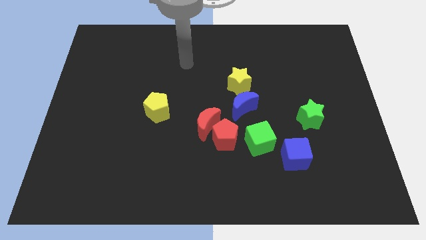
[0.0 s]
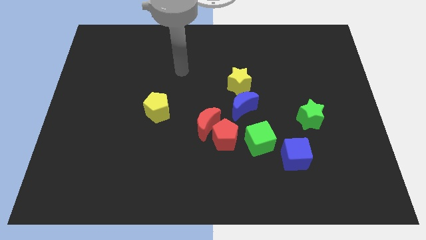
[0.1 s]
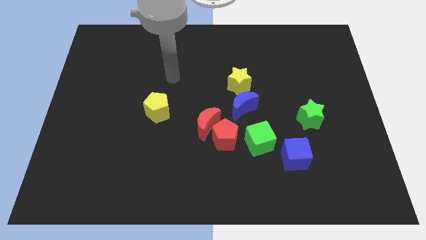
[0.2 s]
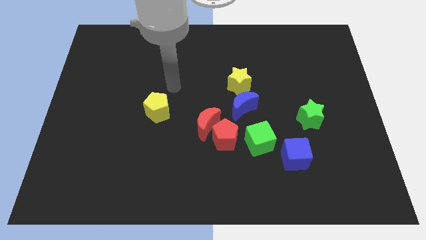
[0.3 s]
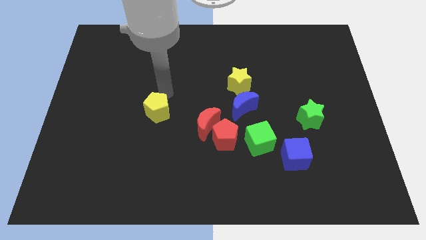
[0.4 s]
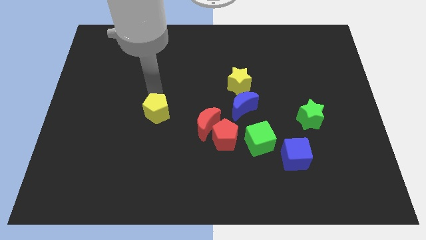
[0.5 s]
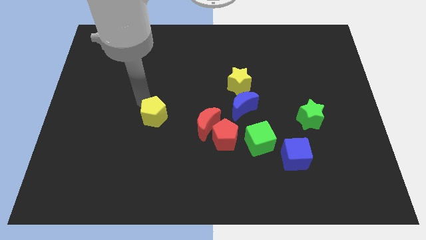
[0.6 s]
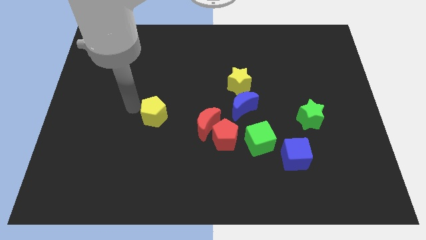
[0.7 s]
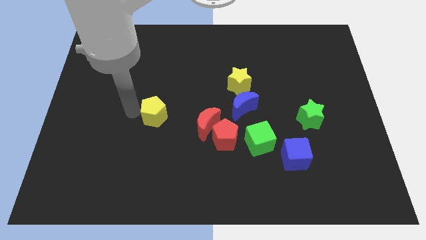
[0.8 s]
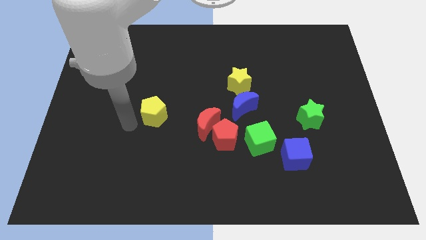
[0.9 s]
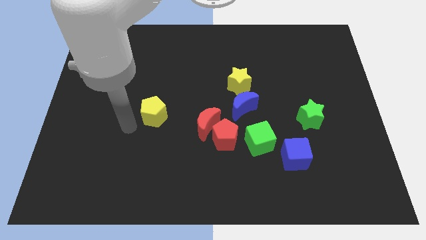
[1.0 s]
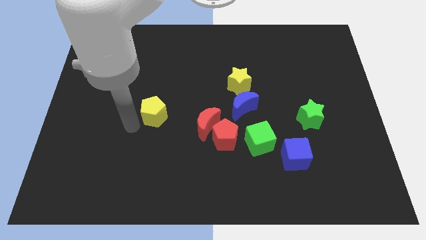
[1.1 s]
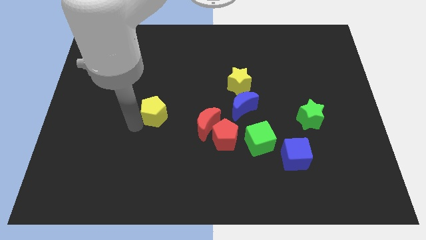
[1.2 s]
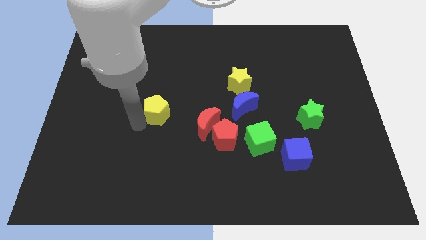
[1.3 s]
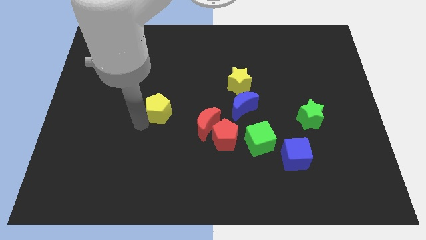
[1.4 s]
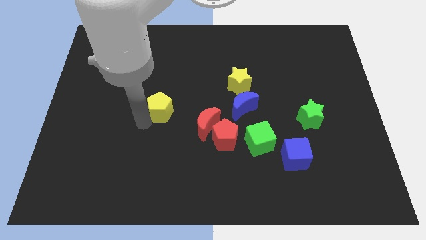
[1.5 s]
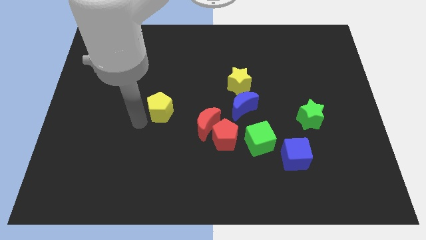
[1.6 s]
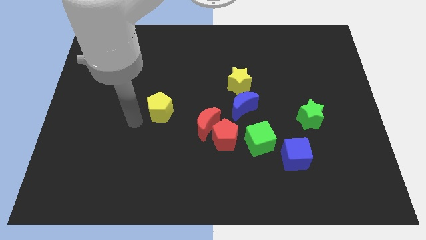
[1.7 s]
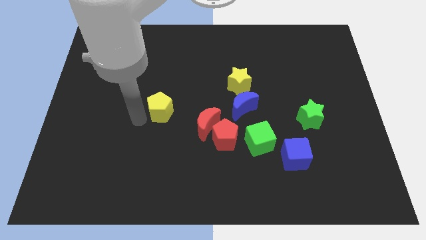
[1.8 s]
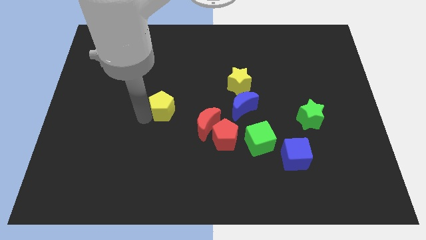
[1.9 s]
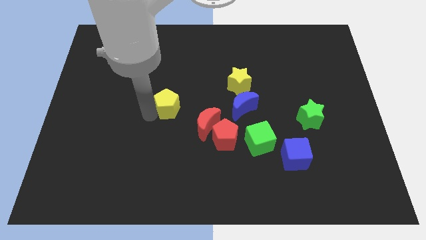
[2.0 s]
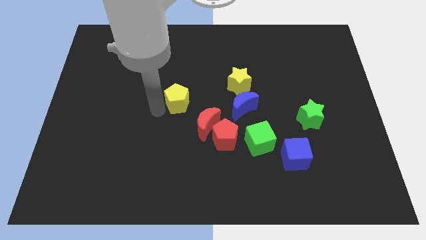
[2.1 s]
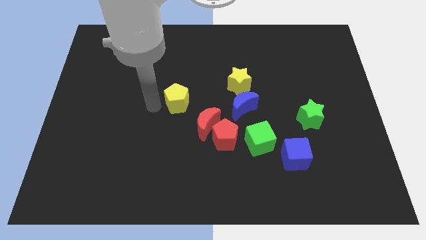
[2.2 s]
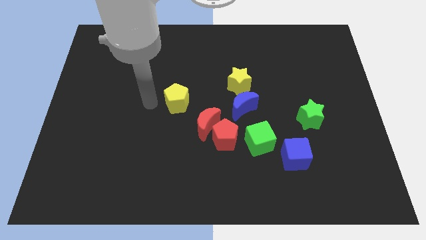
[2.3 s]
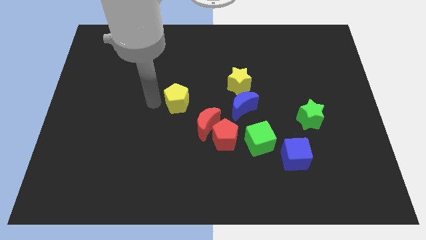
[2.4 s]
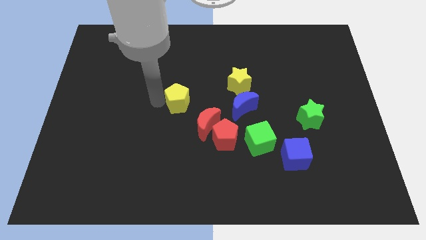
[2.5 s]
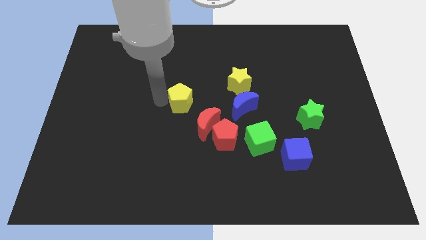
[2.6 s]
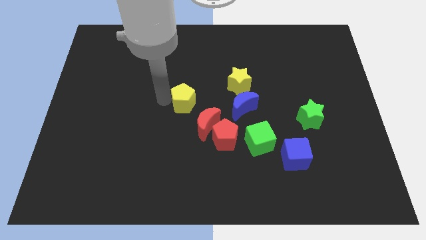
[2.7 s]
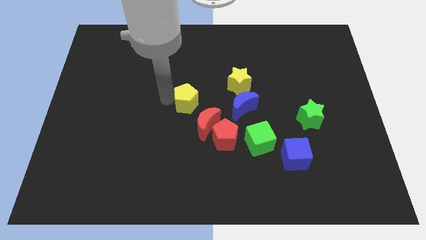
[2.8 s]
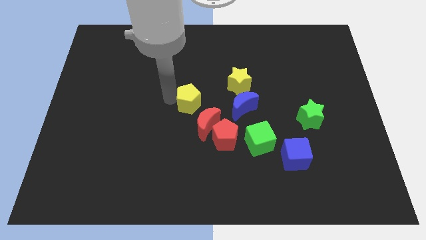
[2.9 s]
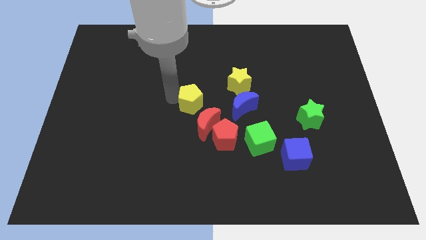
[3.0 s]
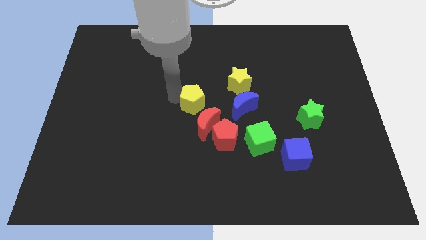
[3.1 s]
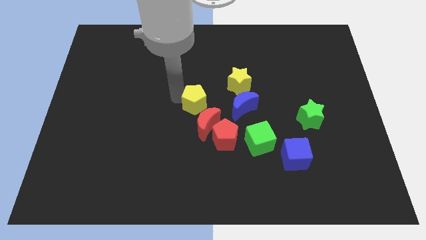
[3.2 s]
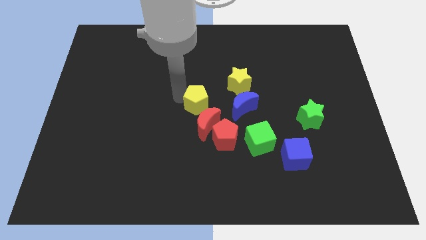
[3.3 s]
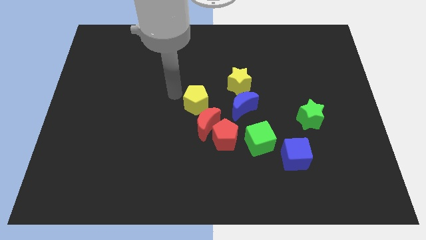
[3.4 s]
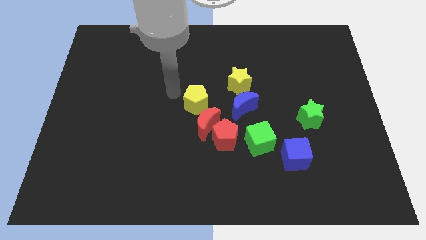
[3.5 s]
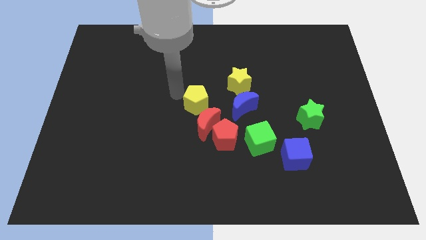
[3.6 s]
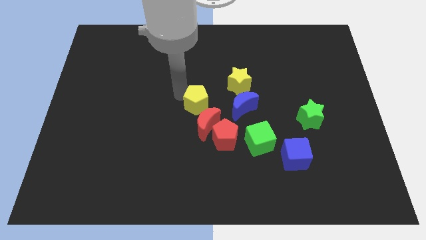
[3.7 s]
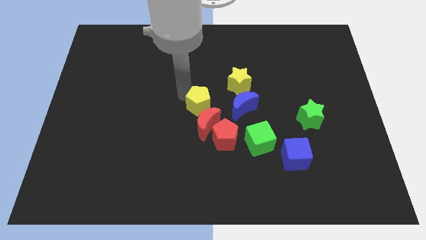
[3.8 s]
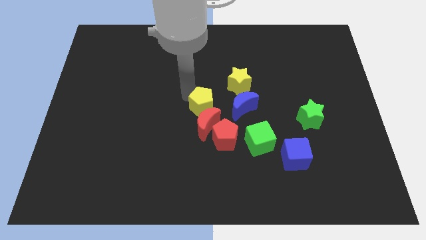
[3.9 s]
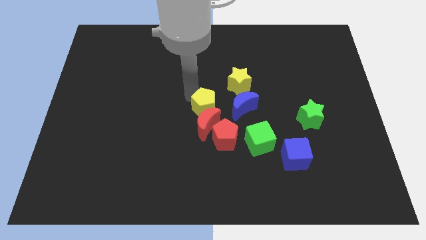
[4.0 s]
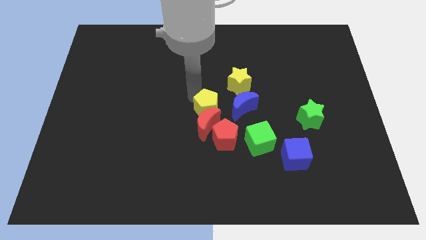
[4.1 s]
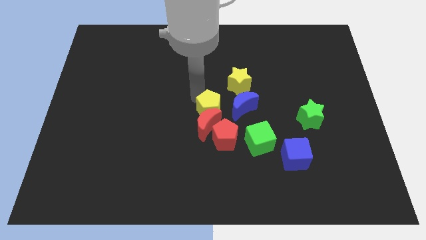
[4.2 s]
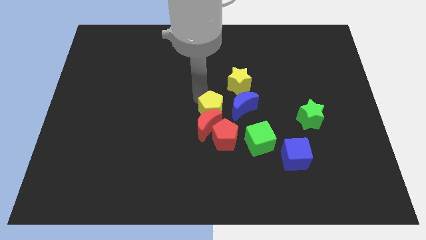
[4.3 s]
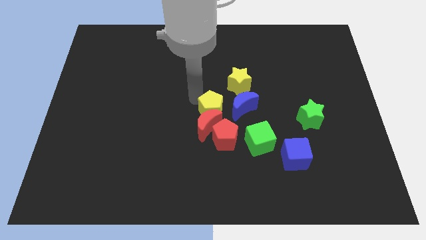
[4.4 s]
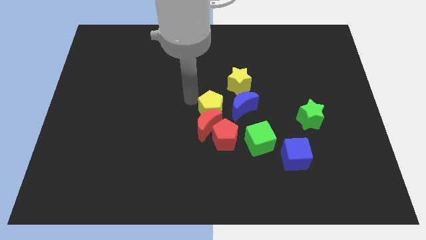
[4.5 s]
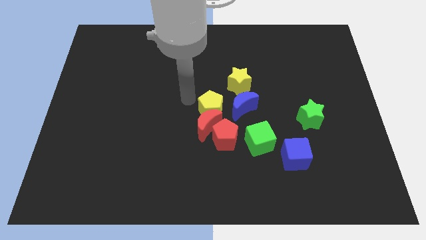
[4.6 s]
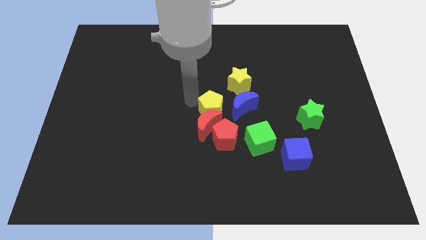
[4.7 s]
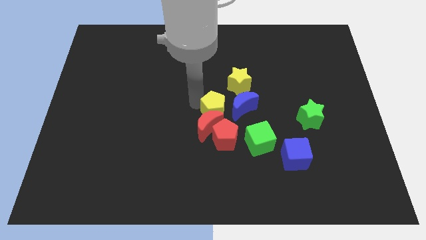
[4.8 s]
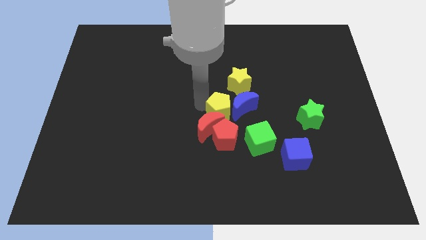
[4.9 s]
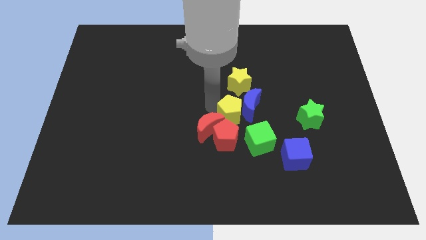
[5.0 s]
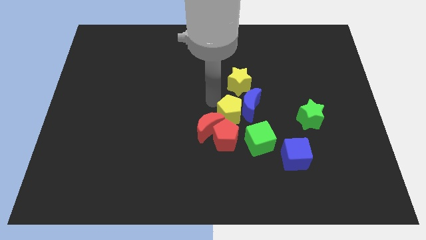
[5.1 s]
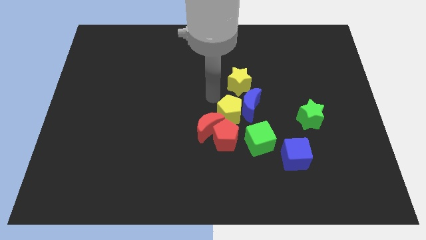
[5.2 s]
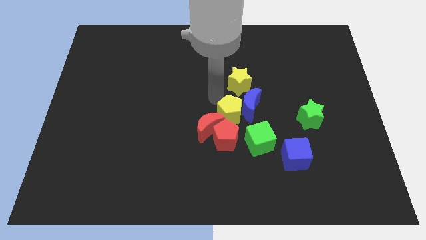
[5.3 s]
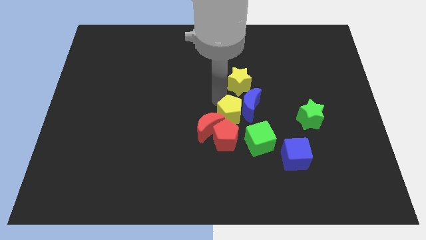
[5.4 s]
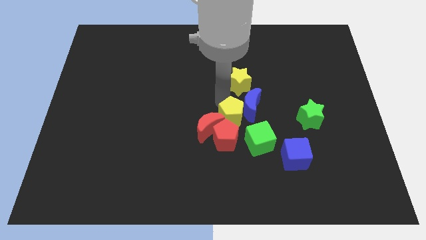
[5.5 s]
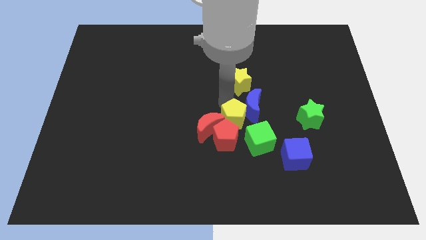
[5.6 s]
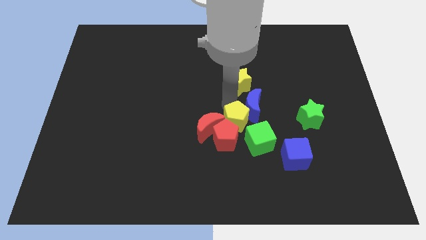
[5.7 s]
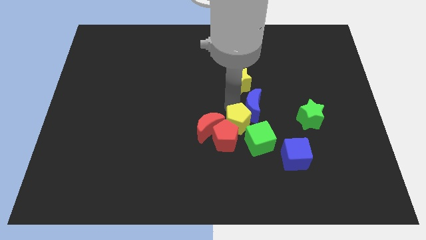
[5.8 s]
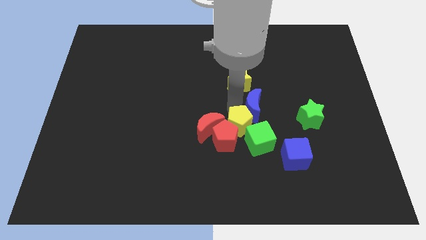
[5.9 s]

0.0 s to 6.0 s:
move the yellow pentagon to the green cube

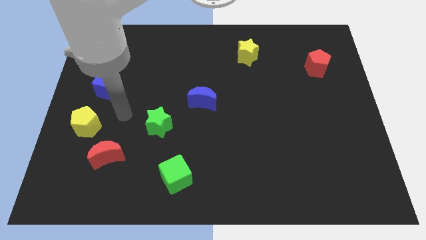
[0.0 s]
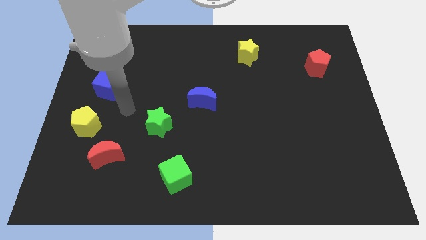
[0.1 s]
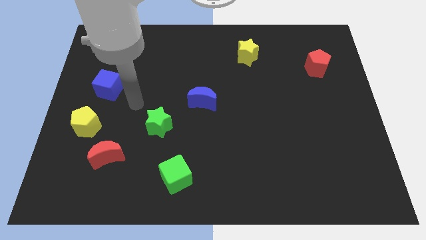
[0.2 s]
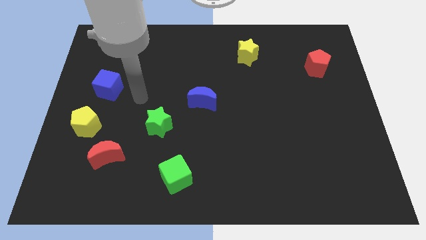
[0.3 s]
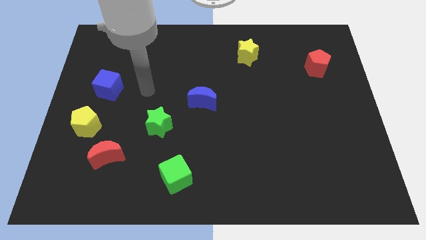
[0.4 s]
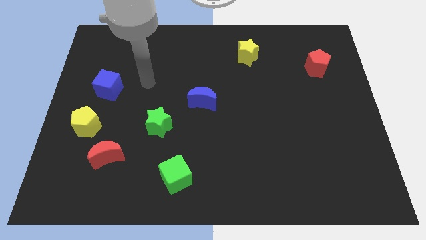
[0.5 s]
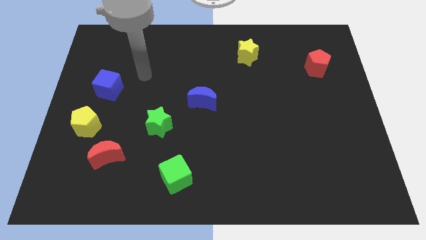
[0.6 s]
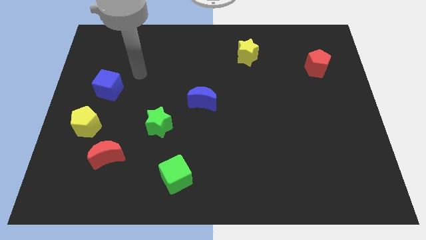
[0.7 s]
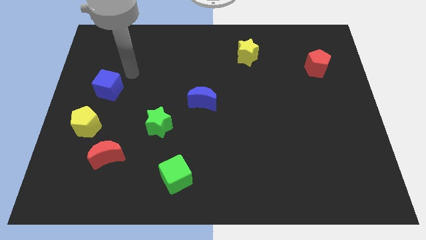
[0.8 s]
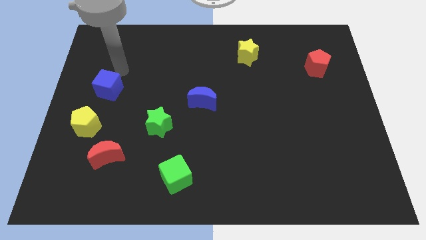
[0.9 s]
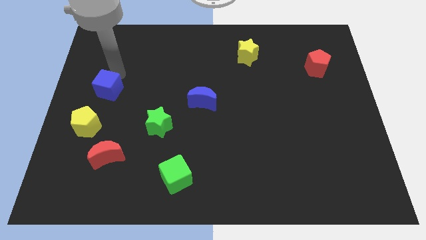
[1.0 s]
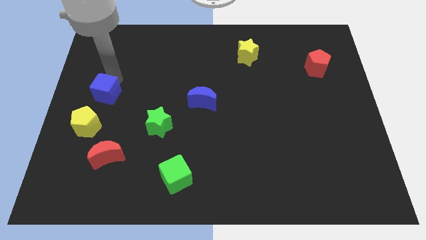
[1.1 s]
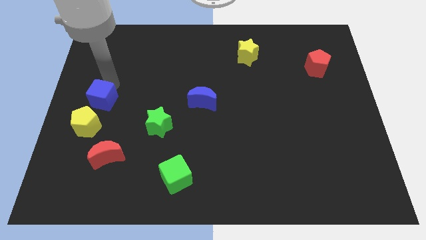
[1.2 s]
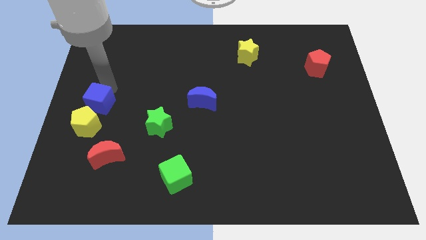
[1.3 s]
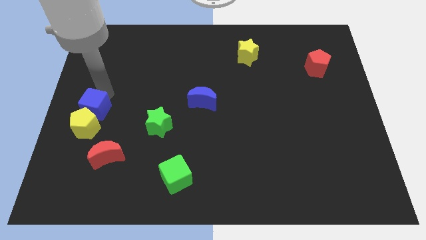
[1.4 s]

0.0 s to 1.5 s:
slide the blue cube to the yellow pentagon
